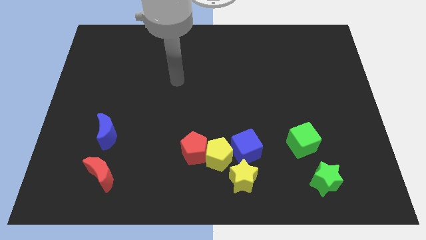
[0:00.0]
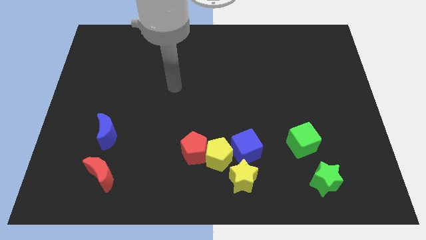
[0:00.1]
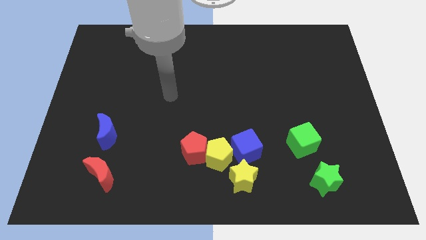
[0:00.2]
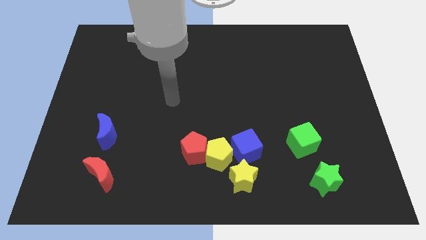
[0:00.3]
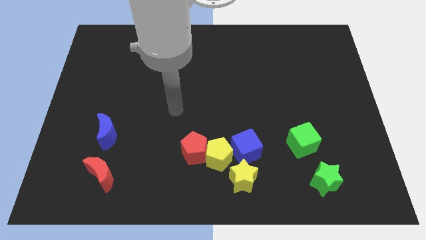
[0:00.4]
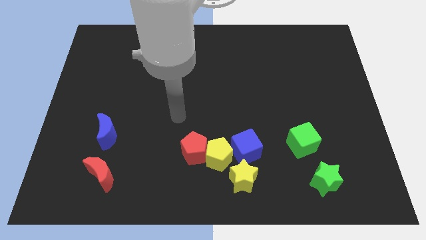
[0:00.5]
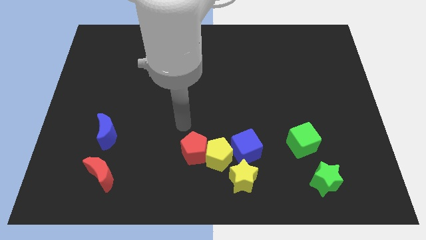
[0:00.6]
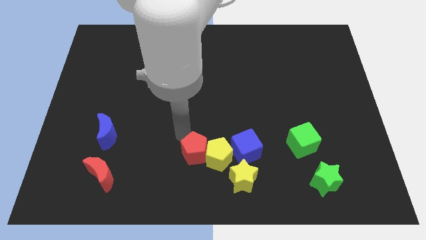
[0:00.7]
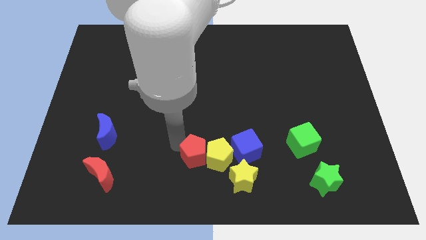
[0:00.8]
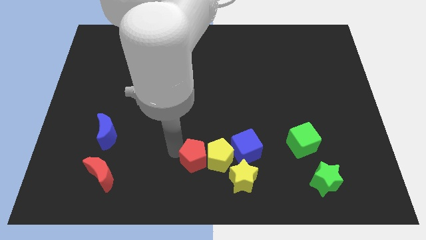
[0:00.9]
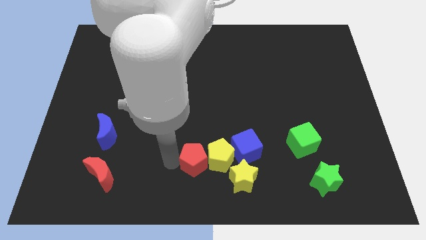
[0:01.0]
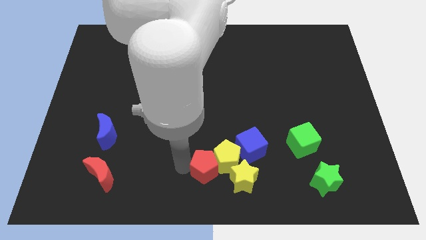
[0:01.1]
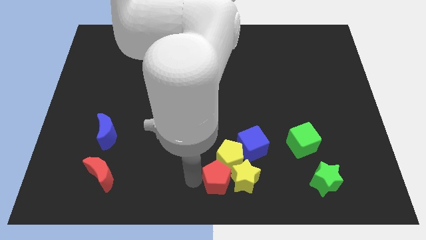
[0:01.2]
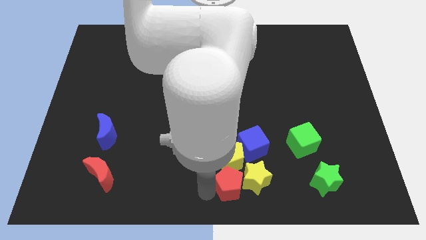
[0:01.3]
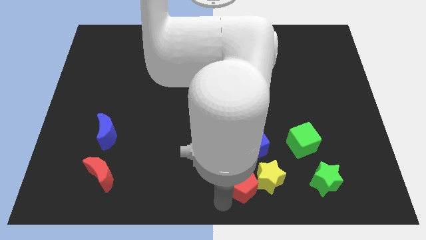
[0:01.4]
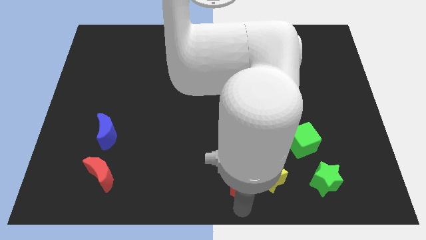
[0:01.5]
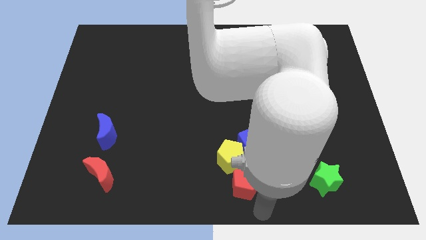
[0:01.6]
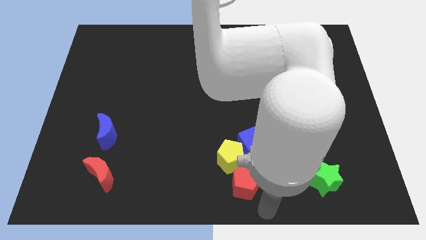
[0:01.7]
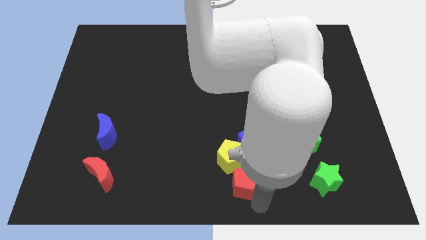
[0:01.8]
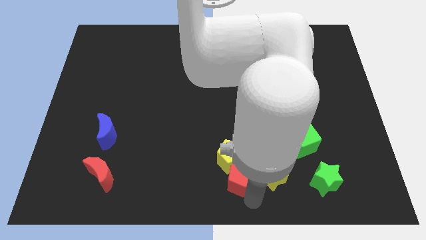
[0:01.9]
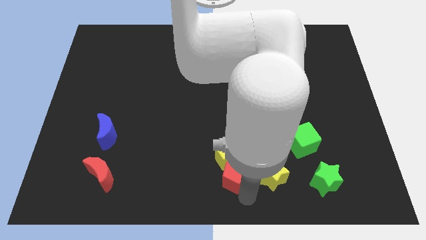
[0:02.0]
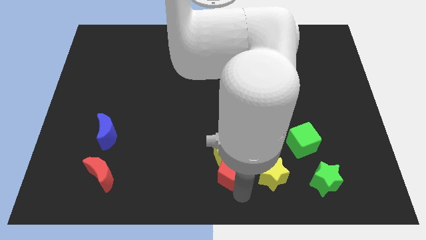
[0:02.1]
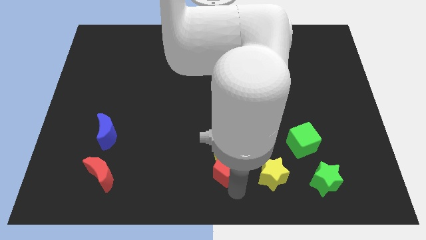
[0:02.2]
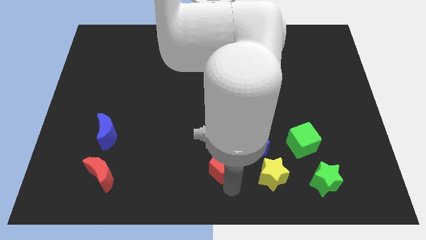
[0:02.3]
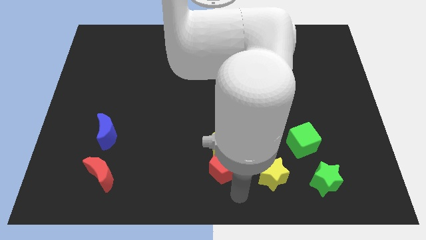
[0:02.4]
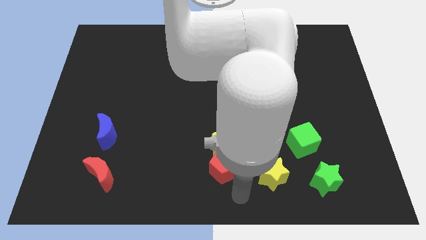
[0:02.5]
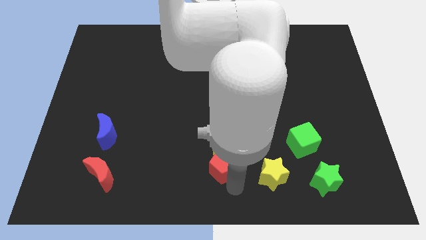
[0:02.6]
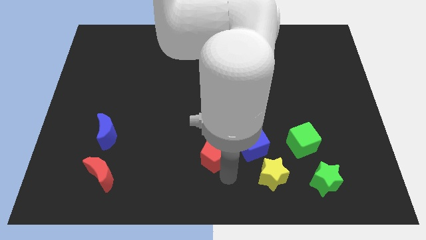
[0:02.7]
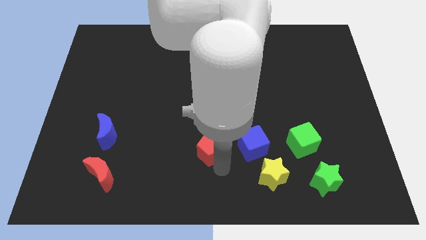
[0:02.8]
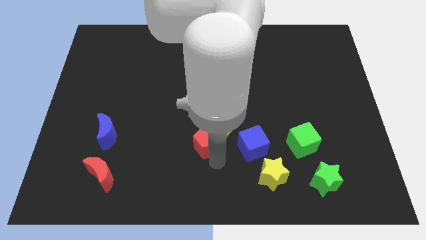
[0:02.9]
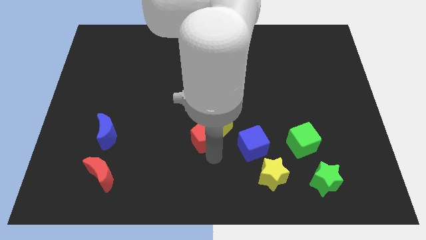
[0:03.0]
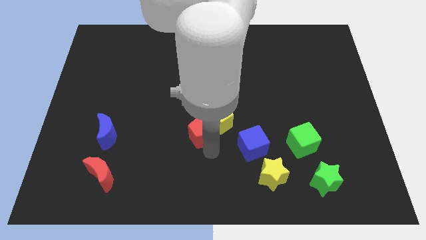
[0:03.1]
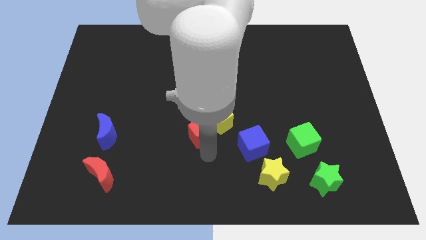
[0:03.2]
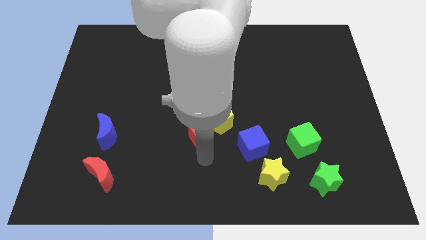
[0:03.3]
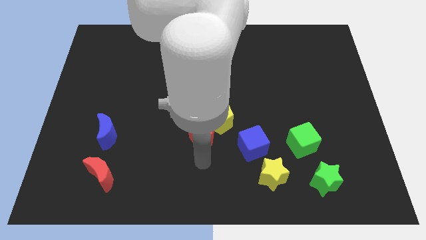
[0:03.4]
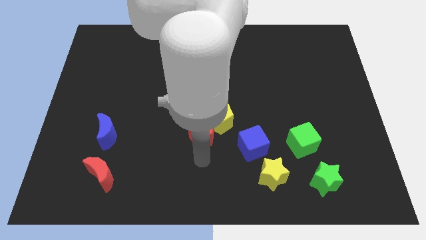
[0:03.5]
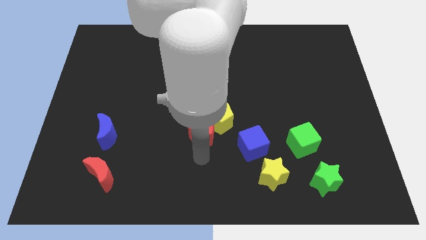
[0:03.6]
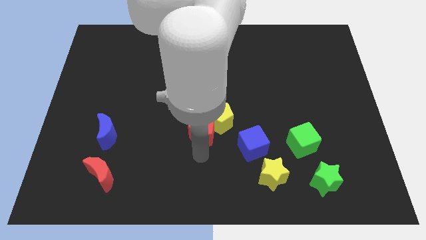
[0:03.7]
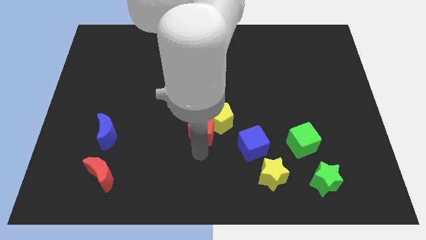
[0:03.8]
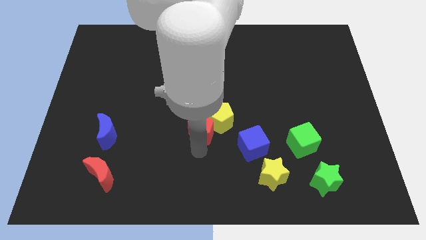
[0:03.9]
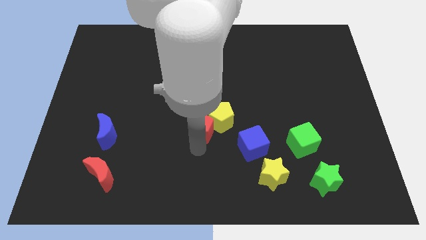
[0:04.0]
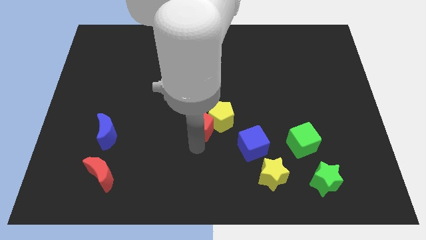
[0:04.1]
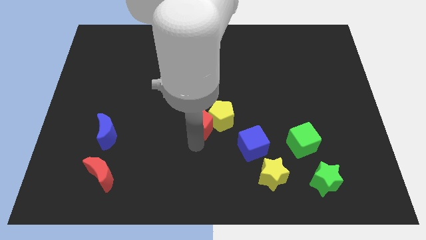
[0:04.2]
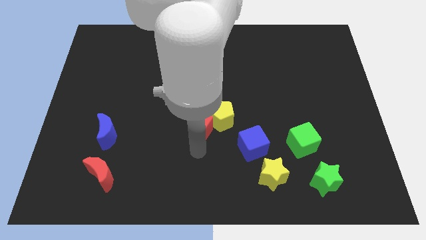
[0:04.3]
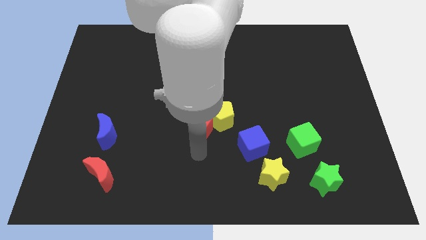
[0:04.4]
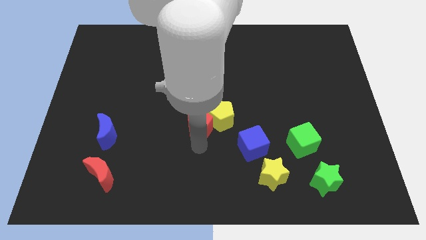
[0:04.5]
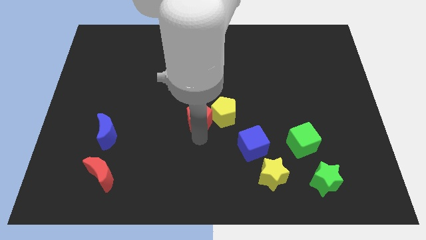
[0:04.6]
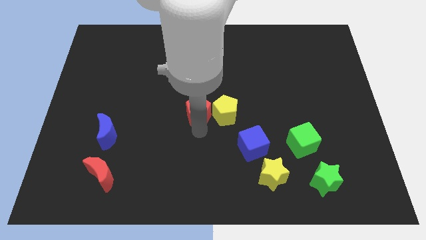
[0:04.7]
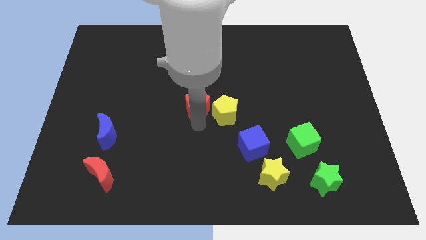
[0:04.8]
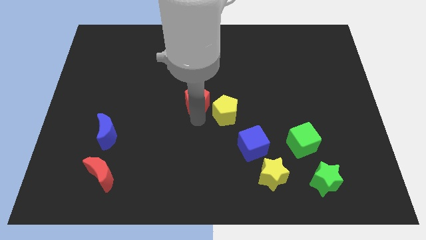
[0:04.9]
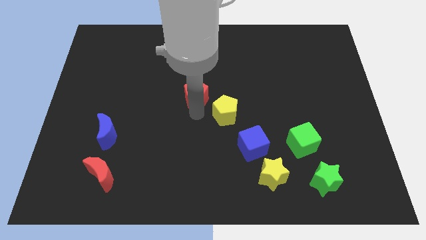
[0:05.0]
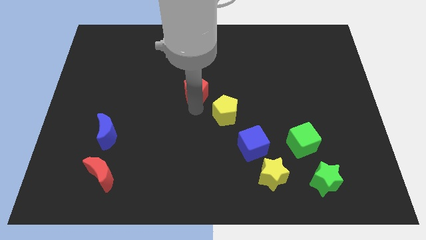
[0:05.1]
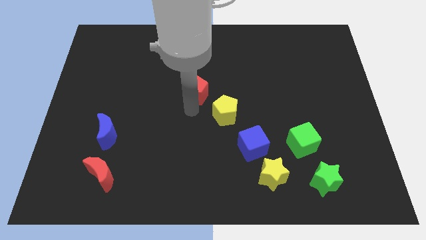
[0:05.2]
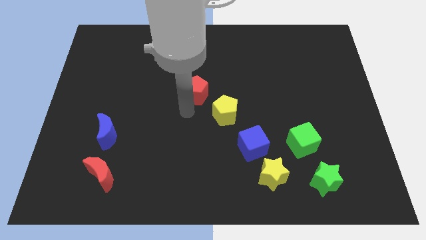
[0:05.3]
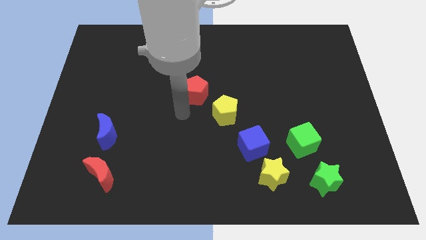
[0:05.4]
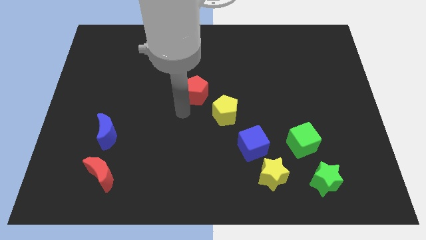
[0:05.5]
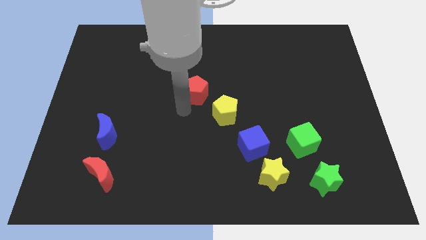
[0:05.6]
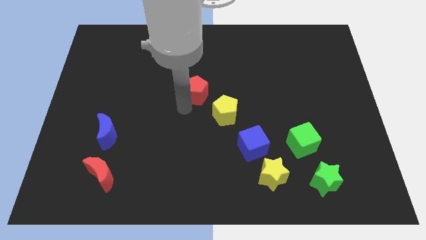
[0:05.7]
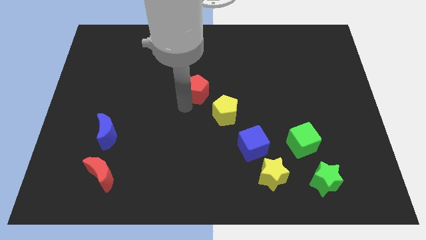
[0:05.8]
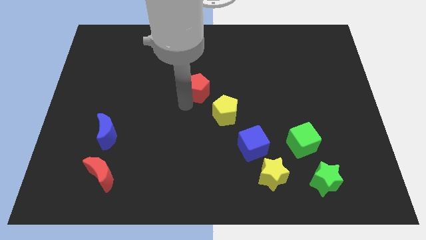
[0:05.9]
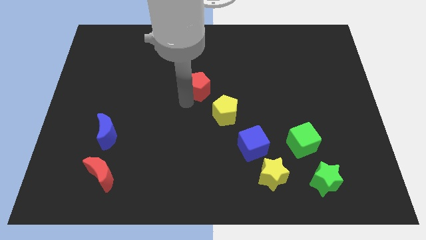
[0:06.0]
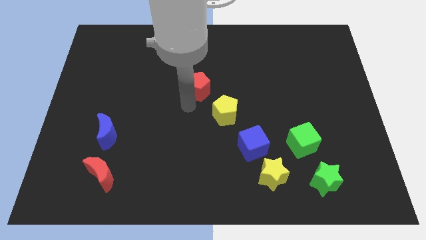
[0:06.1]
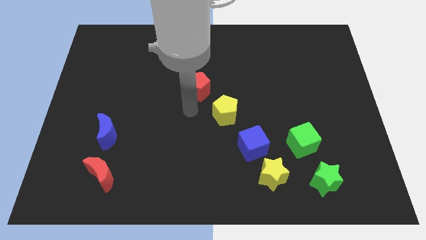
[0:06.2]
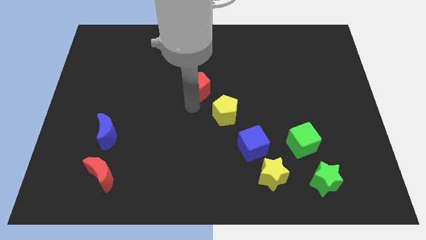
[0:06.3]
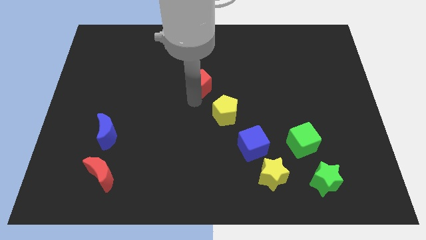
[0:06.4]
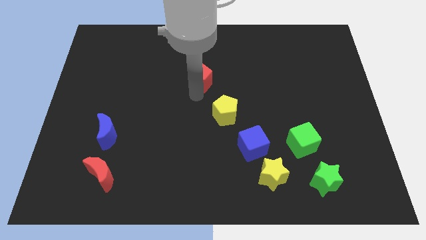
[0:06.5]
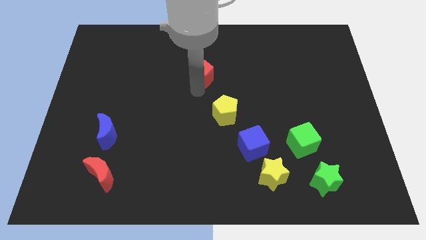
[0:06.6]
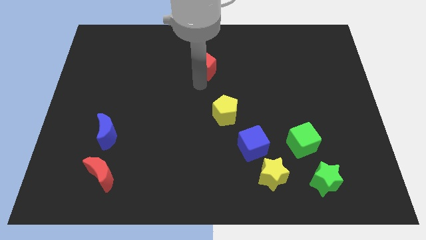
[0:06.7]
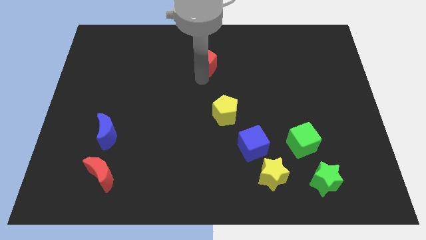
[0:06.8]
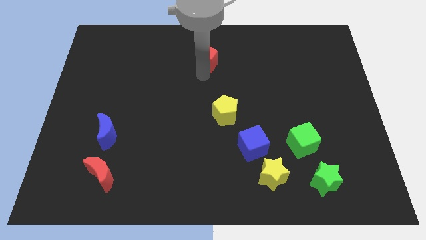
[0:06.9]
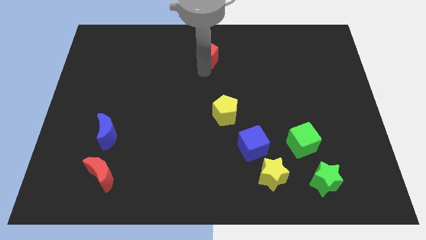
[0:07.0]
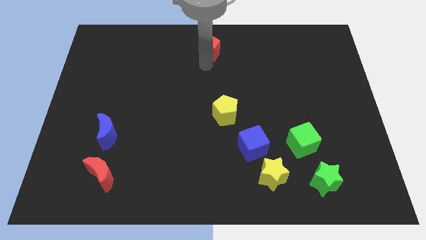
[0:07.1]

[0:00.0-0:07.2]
push the red pentagon to the top side
